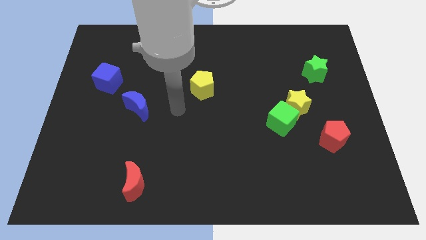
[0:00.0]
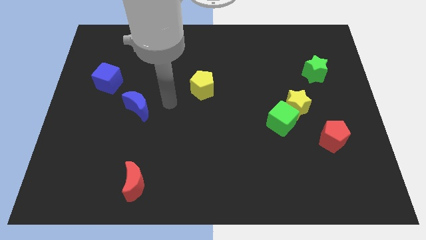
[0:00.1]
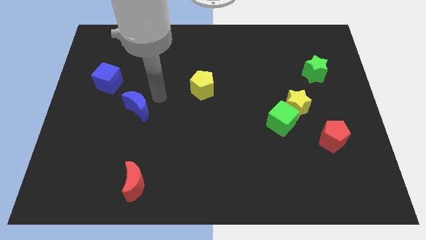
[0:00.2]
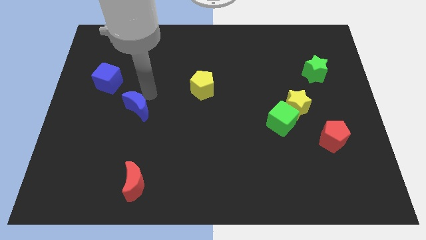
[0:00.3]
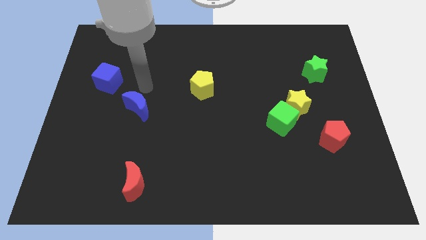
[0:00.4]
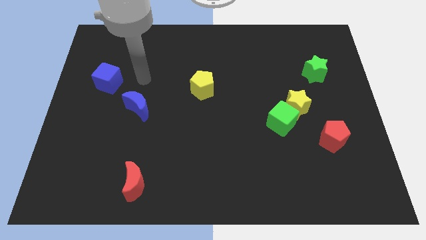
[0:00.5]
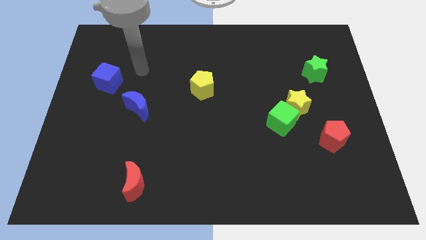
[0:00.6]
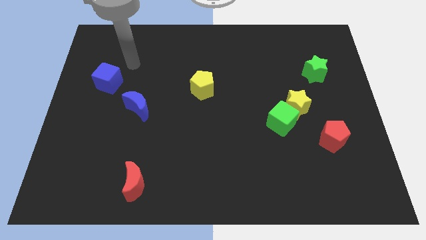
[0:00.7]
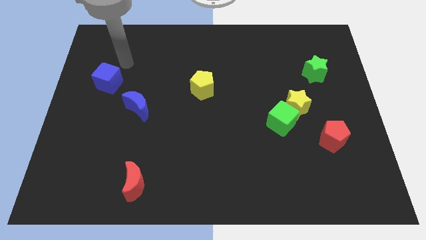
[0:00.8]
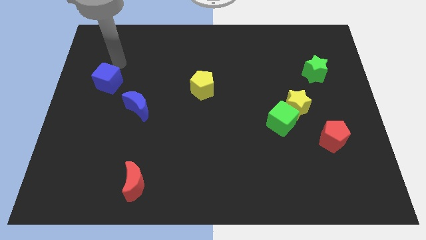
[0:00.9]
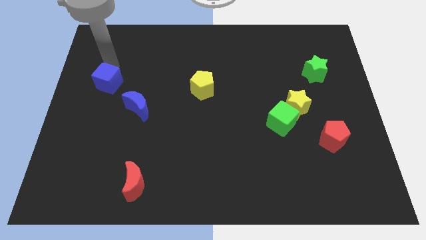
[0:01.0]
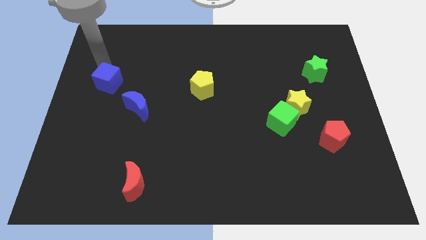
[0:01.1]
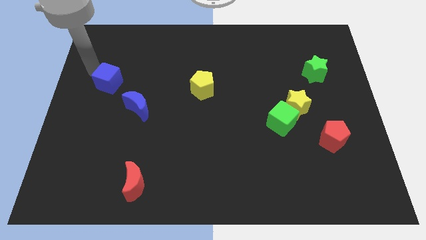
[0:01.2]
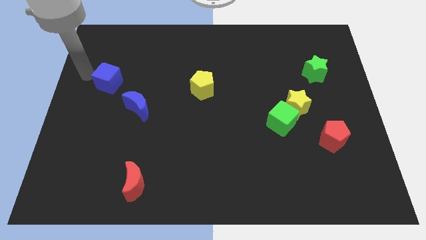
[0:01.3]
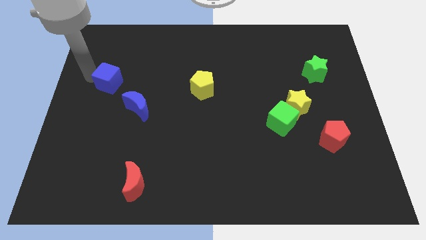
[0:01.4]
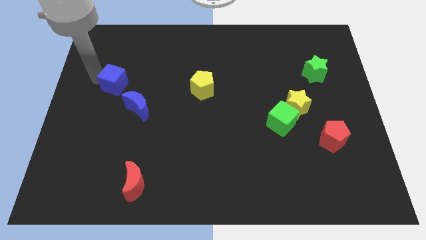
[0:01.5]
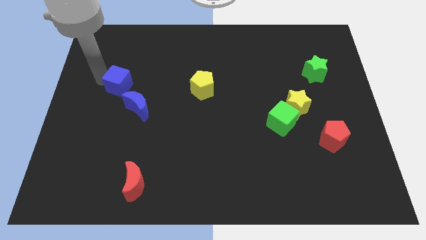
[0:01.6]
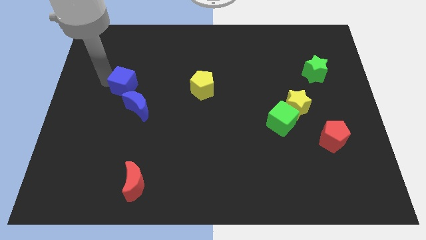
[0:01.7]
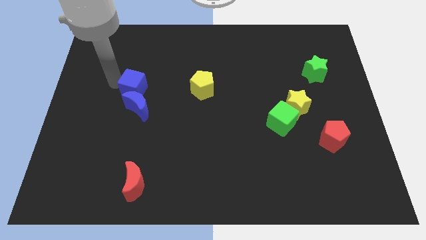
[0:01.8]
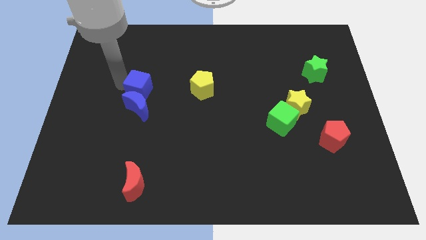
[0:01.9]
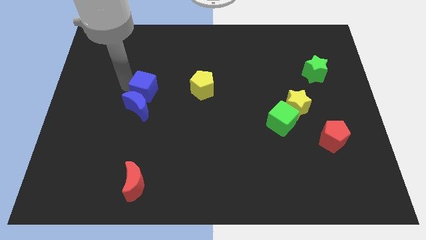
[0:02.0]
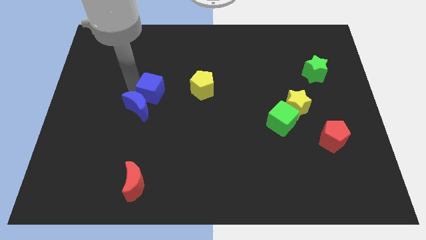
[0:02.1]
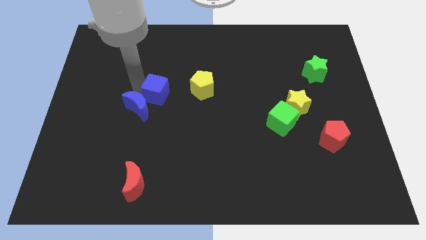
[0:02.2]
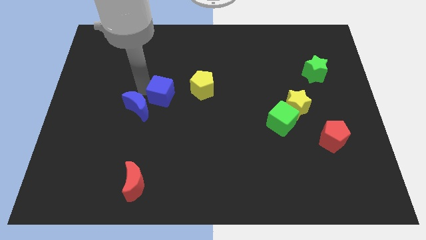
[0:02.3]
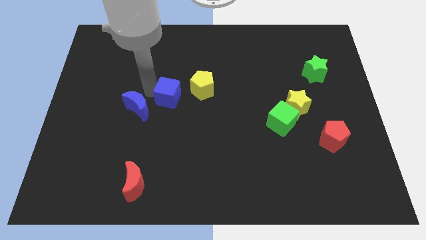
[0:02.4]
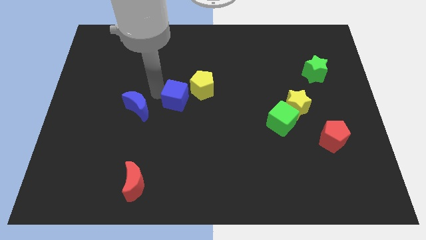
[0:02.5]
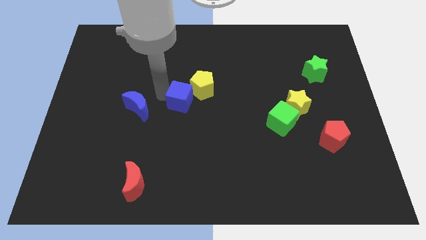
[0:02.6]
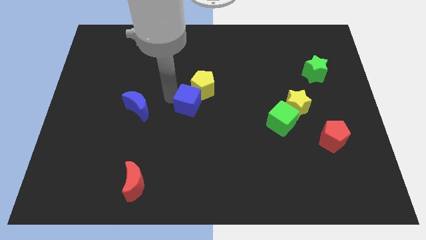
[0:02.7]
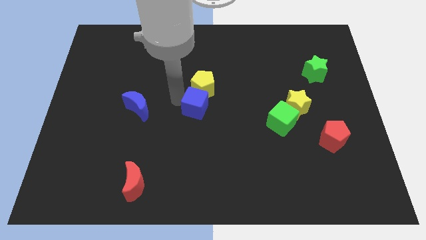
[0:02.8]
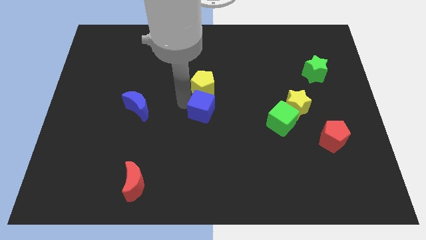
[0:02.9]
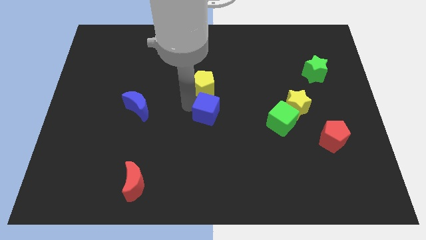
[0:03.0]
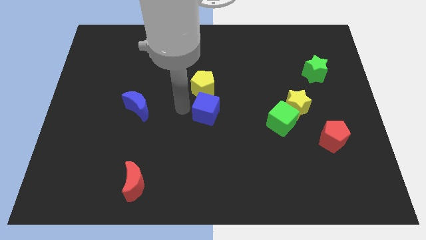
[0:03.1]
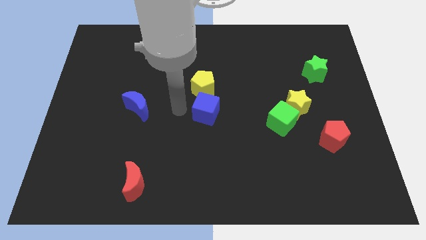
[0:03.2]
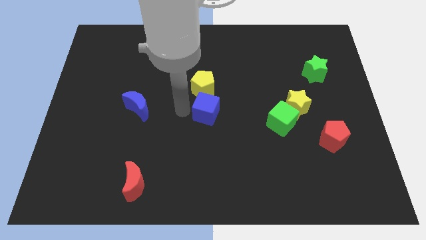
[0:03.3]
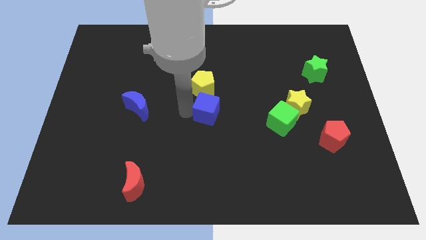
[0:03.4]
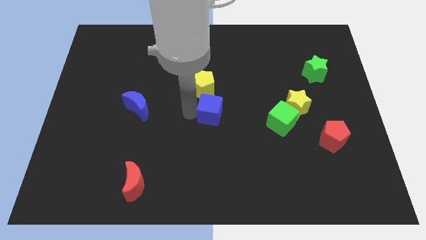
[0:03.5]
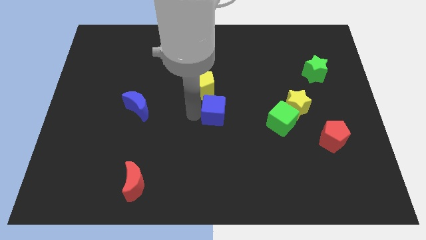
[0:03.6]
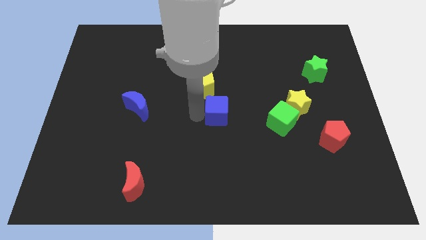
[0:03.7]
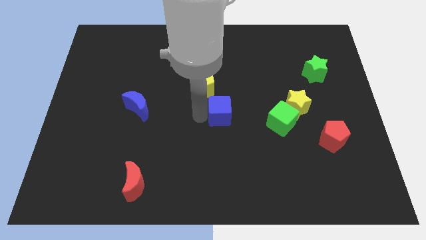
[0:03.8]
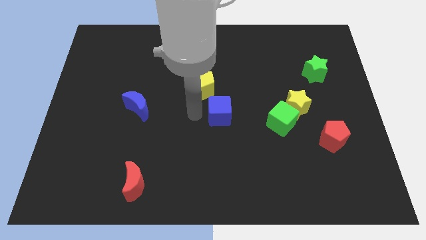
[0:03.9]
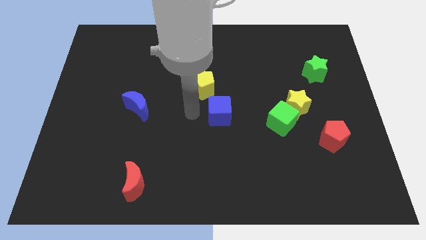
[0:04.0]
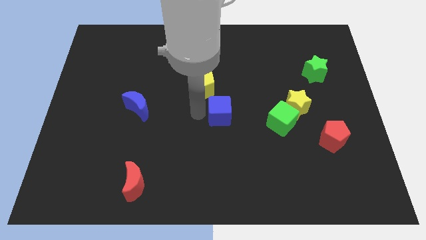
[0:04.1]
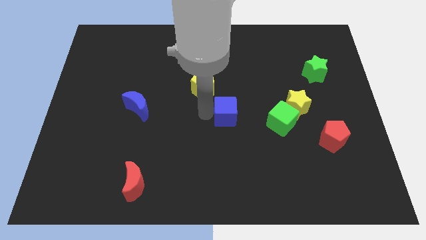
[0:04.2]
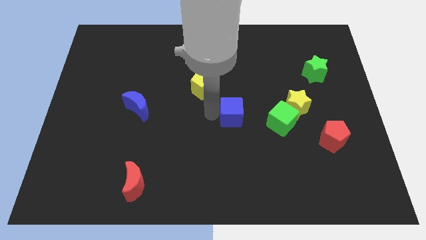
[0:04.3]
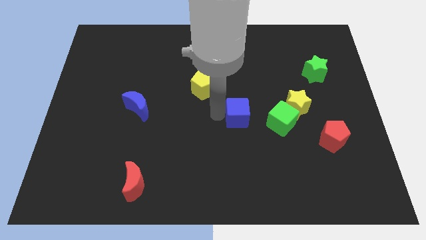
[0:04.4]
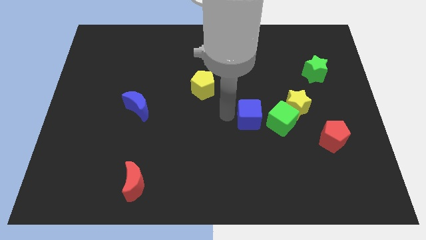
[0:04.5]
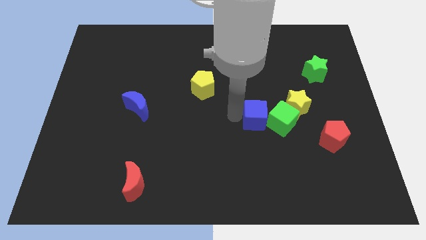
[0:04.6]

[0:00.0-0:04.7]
slide the blue cube to the green cube

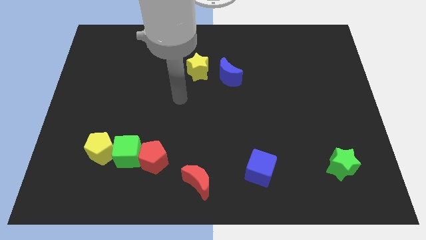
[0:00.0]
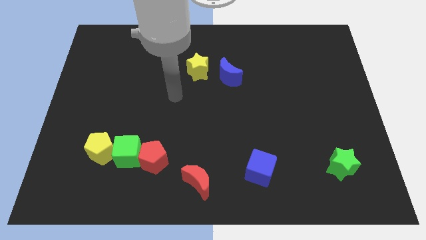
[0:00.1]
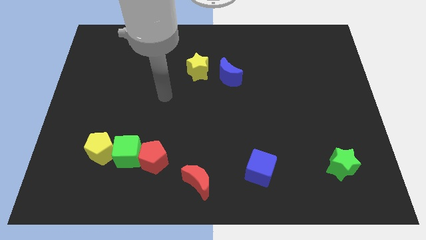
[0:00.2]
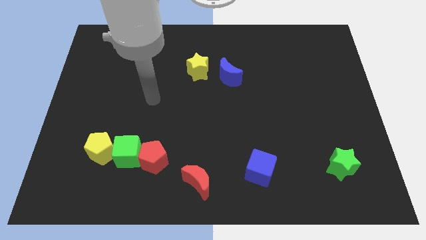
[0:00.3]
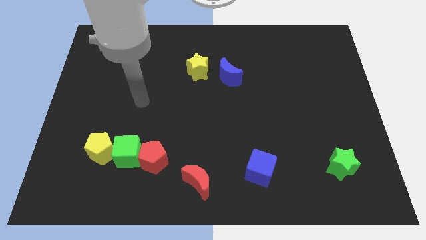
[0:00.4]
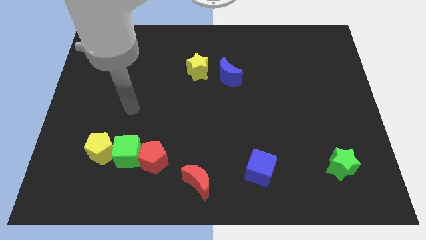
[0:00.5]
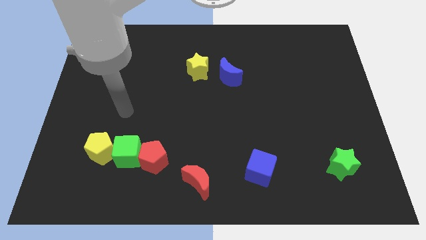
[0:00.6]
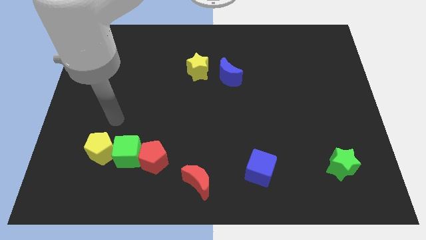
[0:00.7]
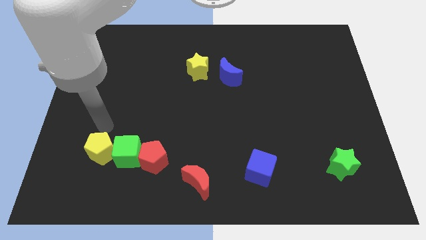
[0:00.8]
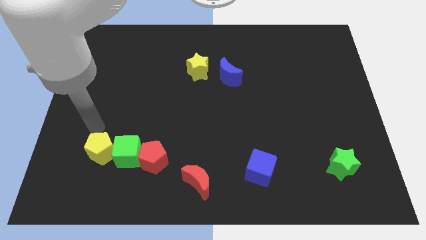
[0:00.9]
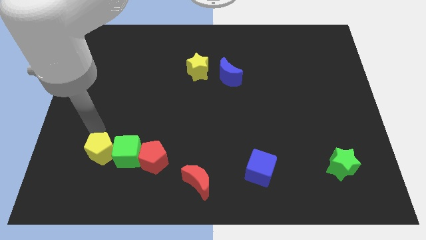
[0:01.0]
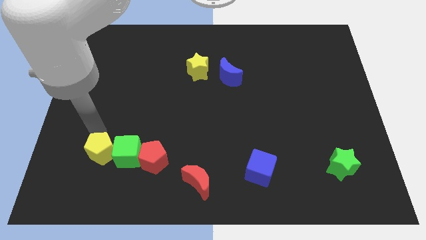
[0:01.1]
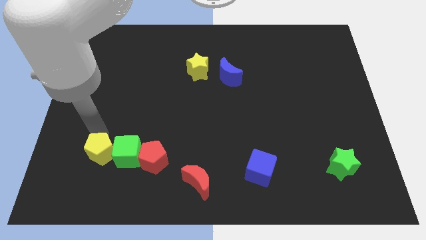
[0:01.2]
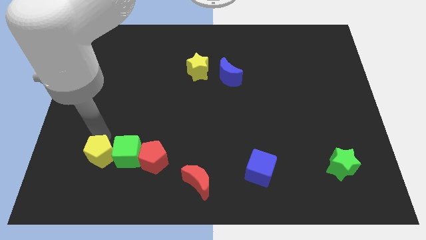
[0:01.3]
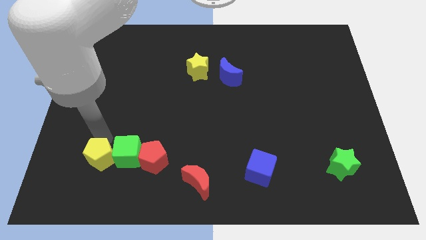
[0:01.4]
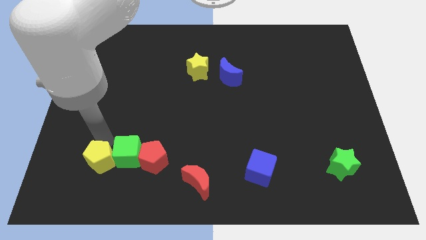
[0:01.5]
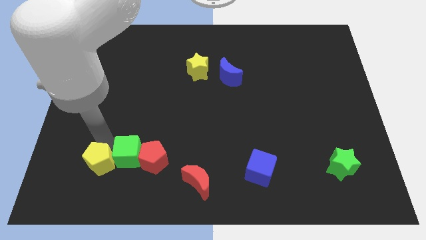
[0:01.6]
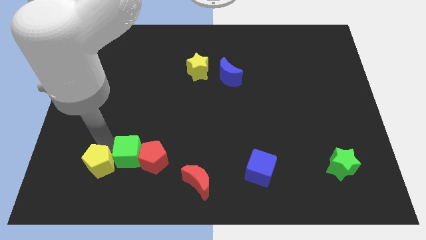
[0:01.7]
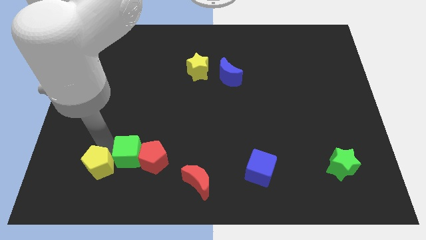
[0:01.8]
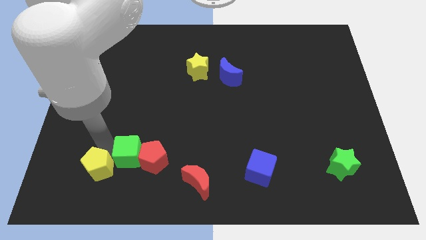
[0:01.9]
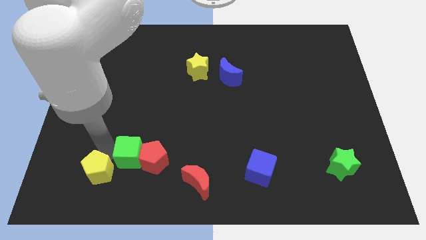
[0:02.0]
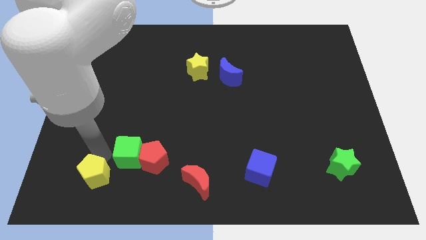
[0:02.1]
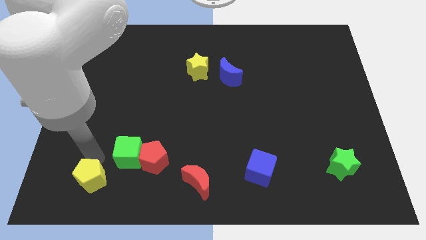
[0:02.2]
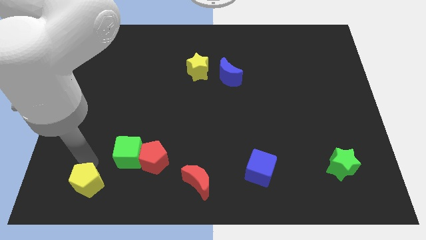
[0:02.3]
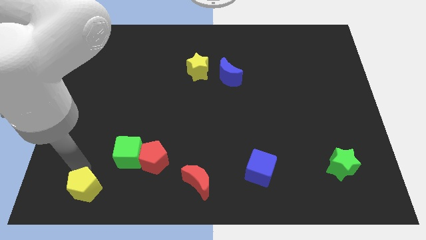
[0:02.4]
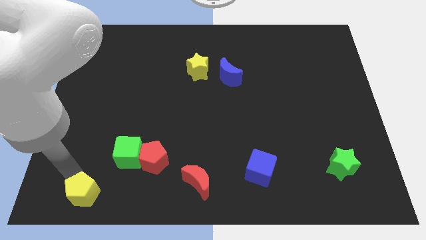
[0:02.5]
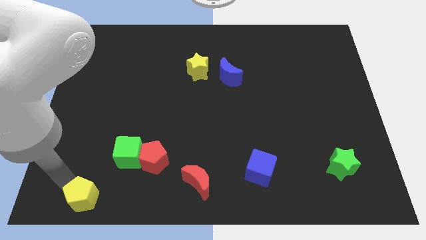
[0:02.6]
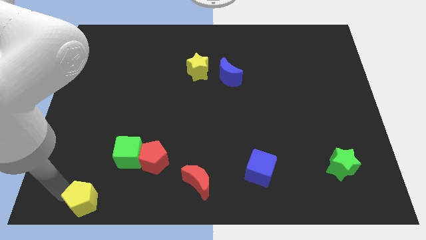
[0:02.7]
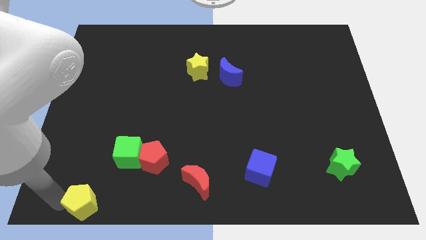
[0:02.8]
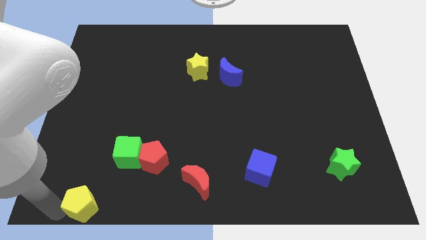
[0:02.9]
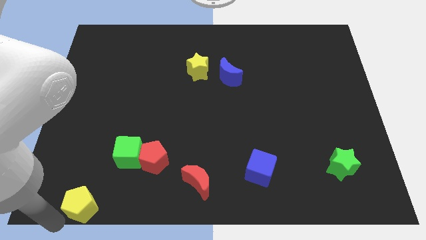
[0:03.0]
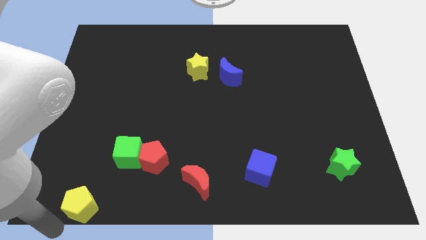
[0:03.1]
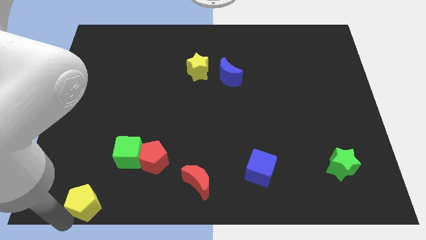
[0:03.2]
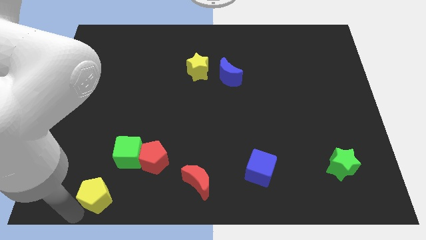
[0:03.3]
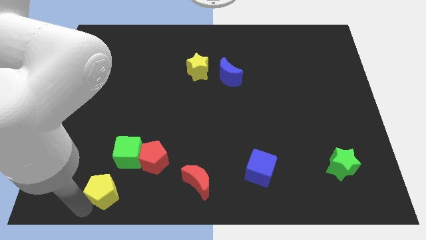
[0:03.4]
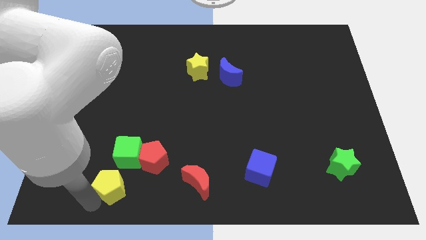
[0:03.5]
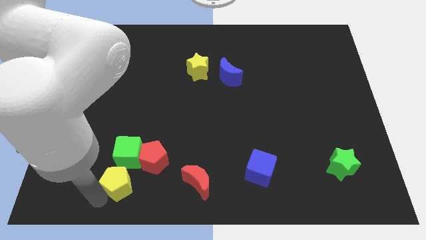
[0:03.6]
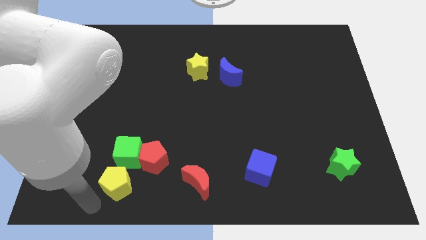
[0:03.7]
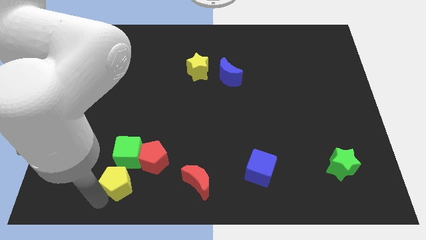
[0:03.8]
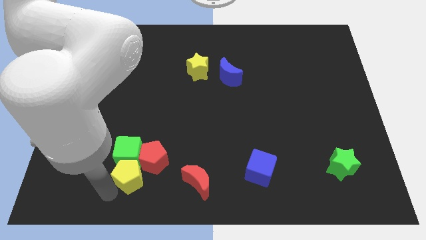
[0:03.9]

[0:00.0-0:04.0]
move the yellow pentagon next to the red pentagon
